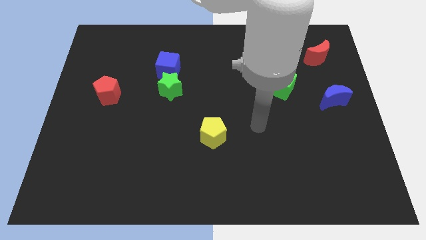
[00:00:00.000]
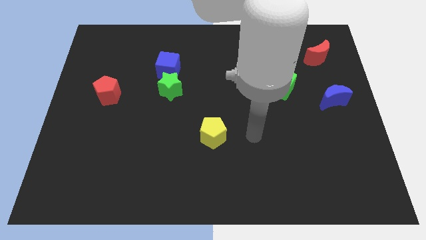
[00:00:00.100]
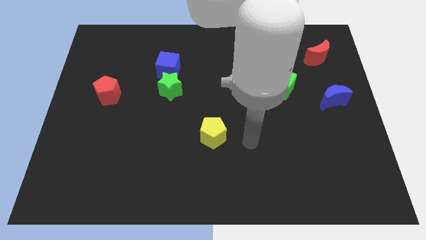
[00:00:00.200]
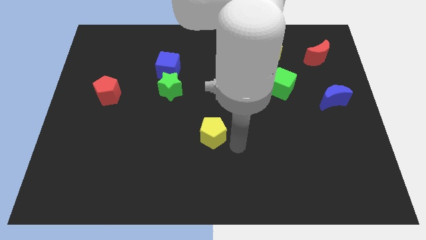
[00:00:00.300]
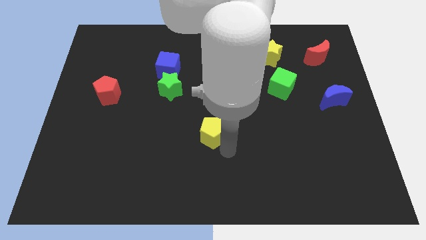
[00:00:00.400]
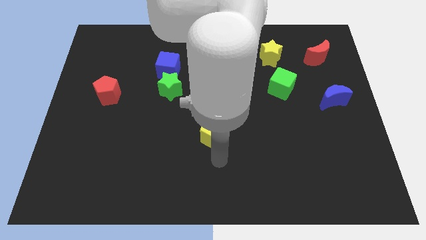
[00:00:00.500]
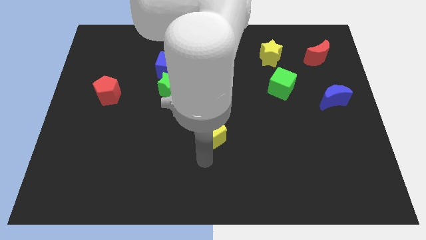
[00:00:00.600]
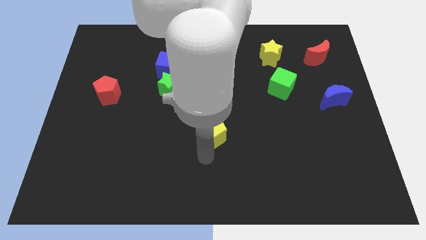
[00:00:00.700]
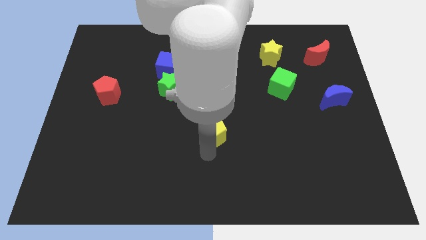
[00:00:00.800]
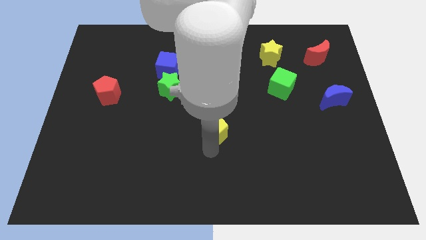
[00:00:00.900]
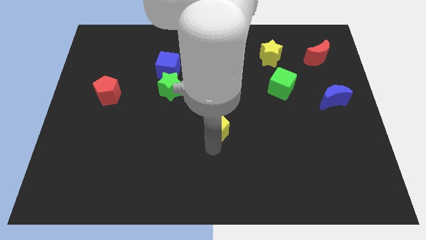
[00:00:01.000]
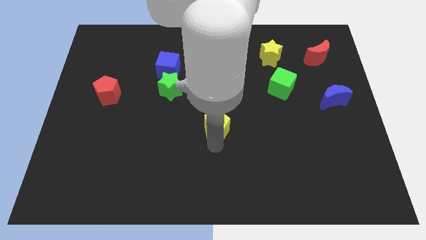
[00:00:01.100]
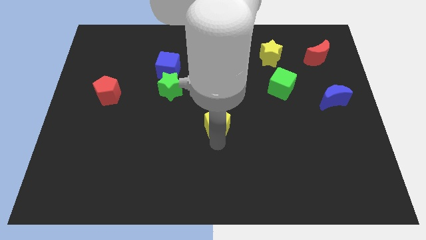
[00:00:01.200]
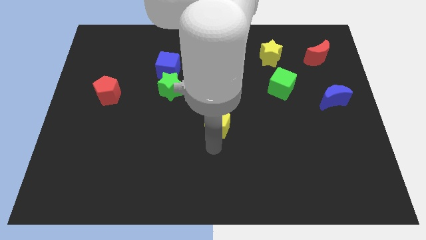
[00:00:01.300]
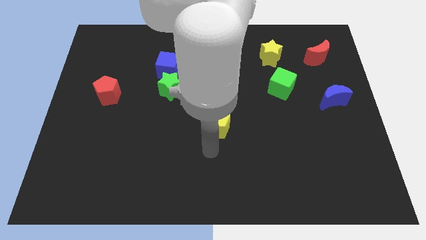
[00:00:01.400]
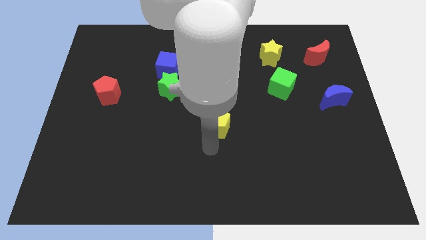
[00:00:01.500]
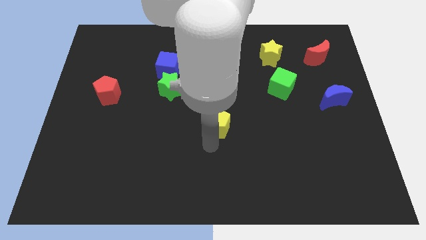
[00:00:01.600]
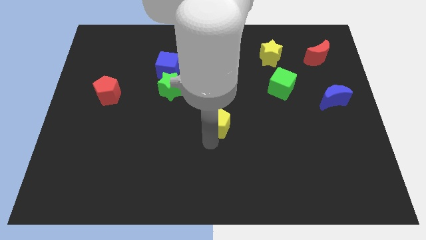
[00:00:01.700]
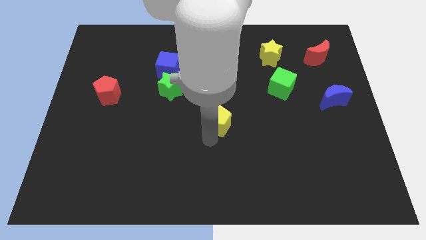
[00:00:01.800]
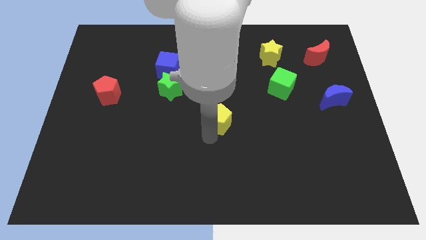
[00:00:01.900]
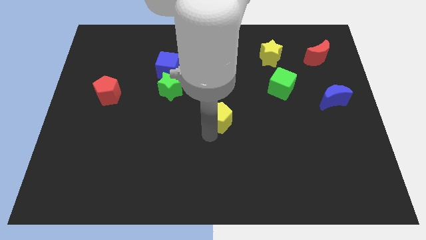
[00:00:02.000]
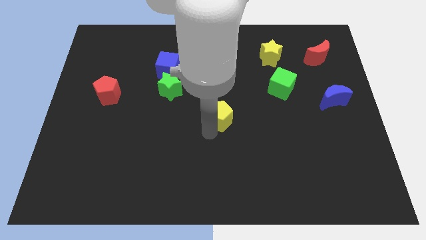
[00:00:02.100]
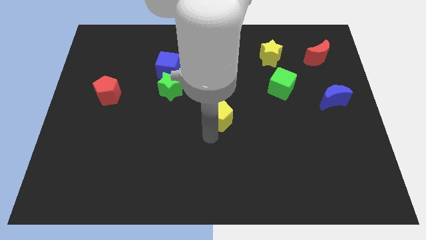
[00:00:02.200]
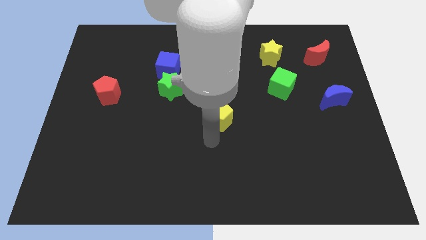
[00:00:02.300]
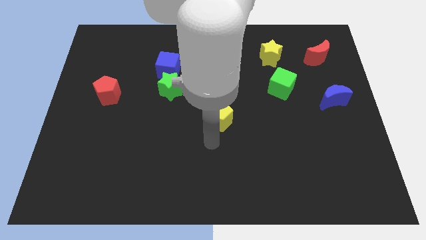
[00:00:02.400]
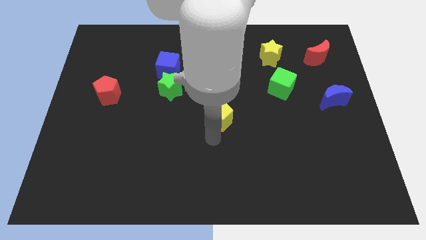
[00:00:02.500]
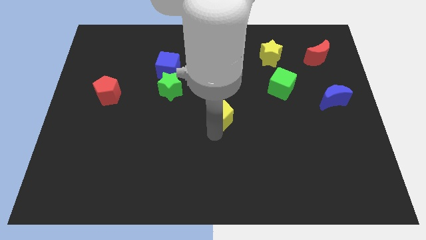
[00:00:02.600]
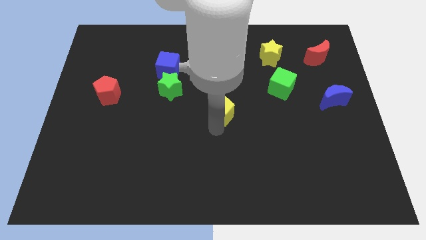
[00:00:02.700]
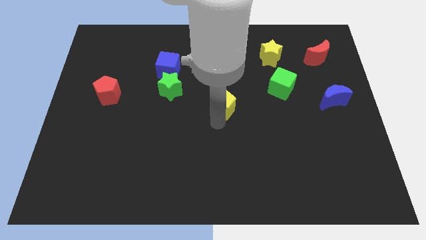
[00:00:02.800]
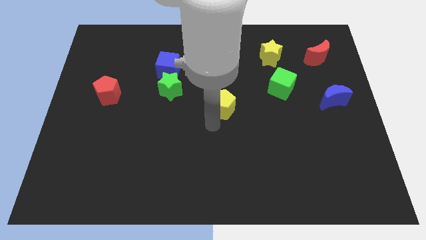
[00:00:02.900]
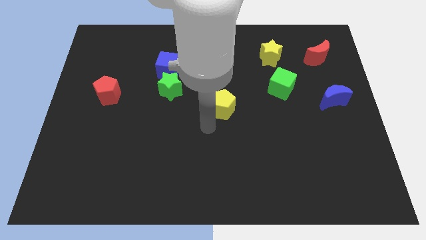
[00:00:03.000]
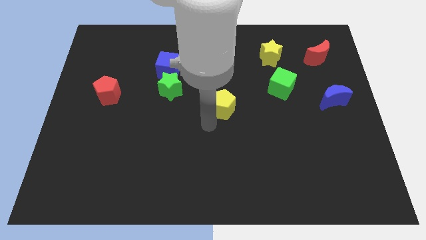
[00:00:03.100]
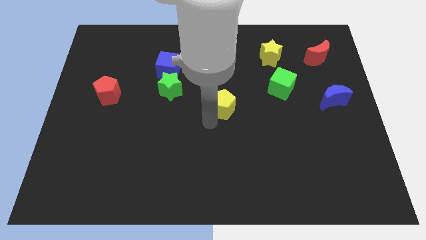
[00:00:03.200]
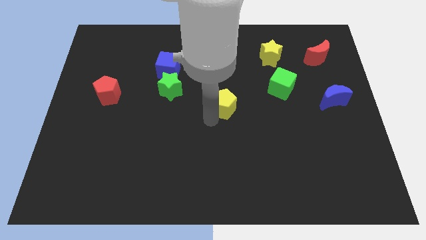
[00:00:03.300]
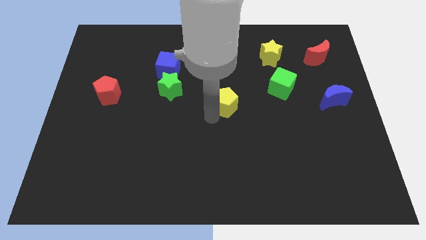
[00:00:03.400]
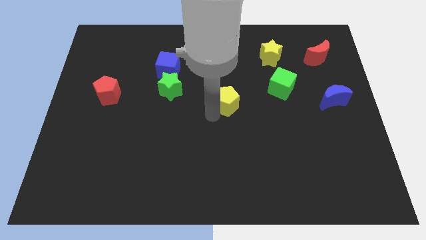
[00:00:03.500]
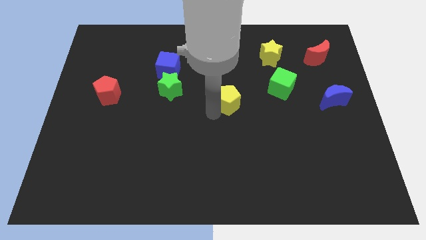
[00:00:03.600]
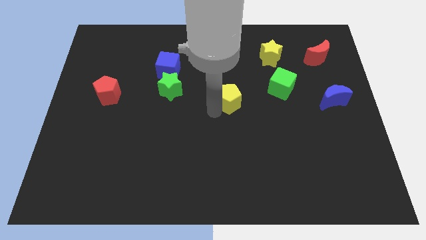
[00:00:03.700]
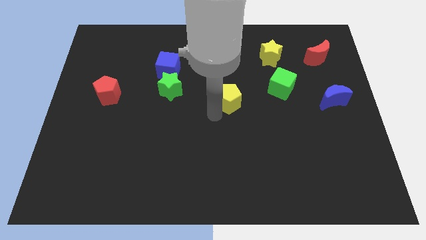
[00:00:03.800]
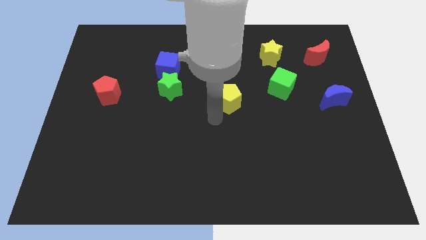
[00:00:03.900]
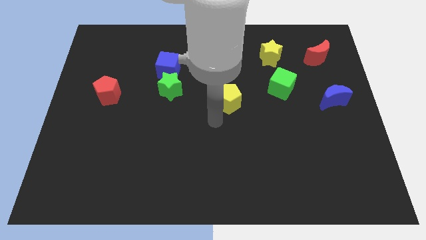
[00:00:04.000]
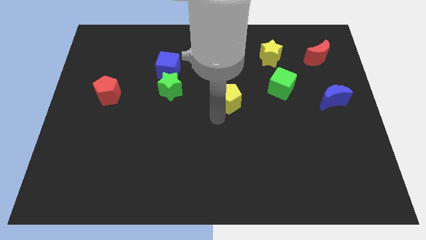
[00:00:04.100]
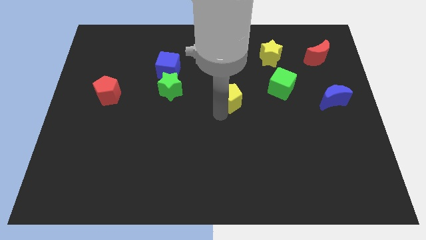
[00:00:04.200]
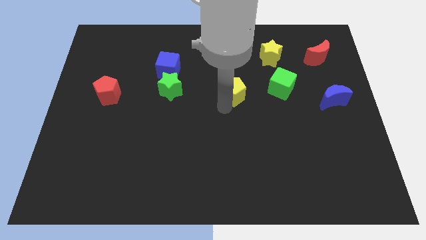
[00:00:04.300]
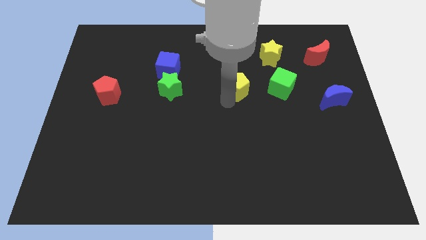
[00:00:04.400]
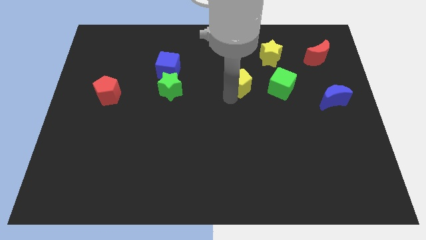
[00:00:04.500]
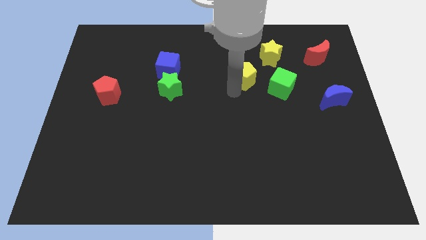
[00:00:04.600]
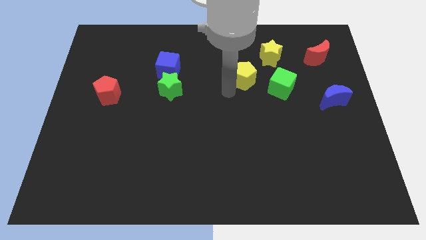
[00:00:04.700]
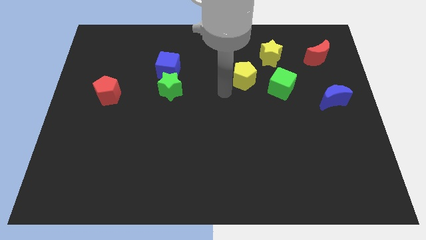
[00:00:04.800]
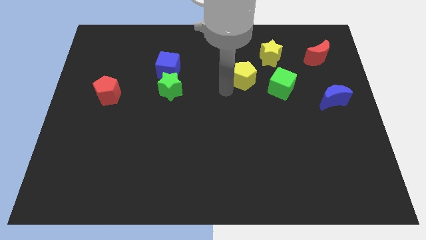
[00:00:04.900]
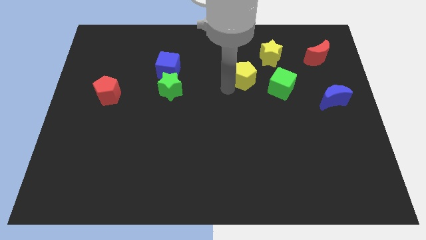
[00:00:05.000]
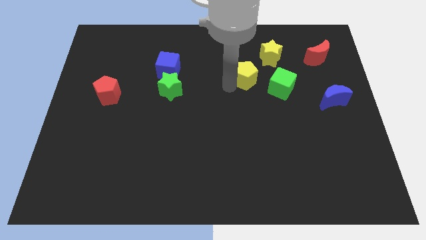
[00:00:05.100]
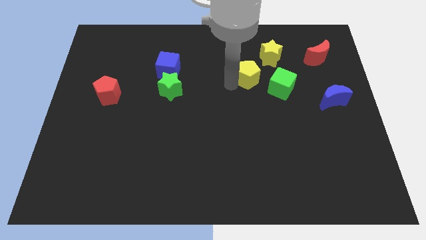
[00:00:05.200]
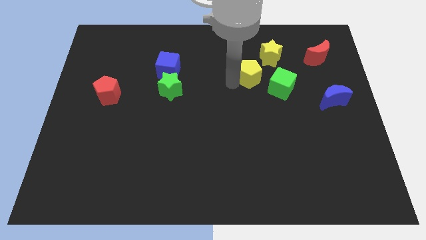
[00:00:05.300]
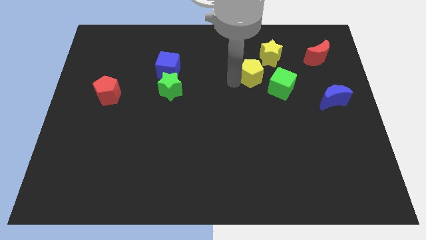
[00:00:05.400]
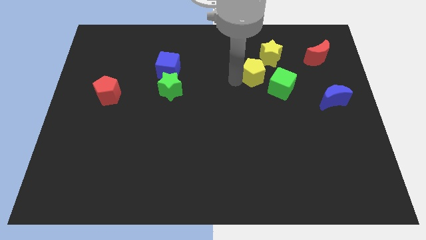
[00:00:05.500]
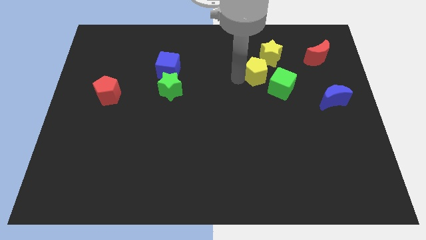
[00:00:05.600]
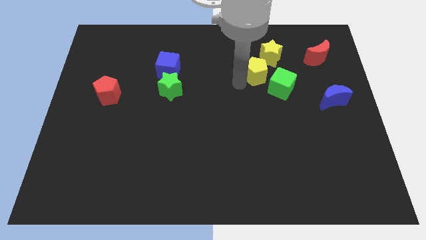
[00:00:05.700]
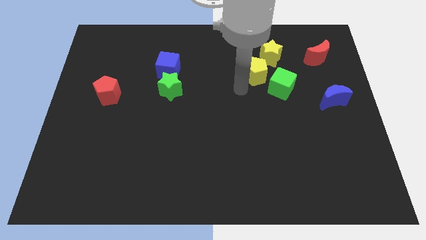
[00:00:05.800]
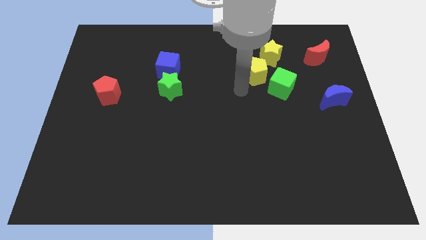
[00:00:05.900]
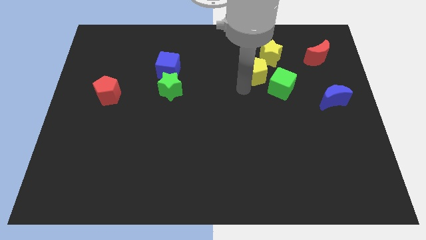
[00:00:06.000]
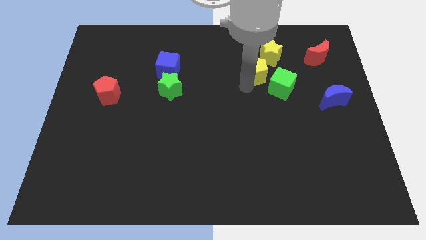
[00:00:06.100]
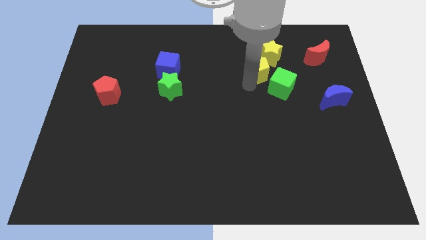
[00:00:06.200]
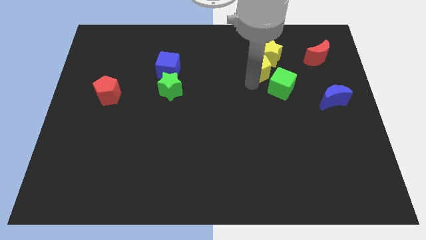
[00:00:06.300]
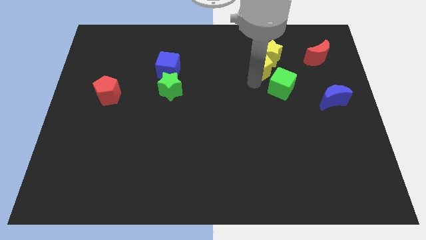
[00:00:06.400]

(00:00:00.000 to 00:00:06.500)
slide the yellow pentagon next to the yellow star
